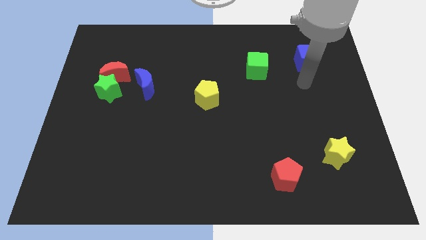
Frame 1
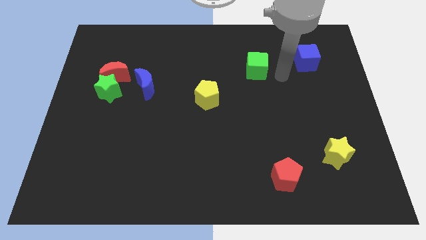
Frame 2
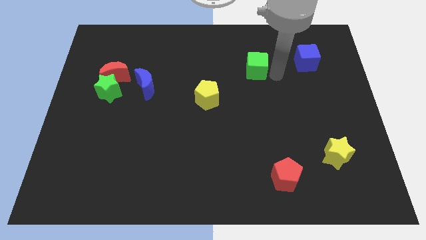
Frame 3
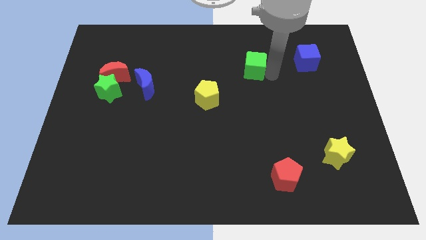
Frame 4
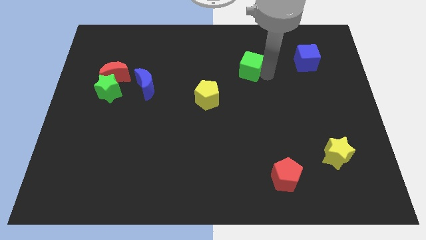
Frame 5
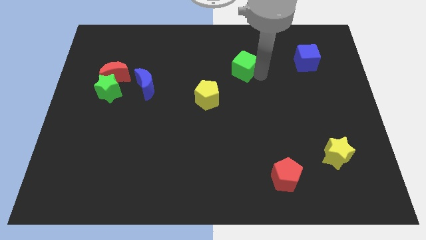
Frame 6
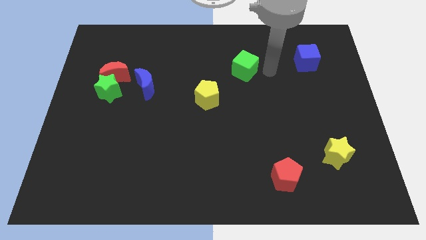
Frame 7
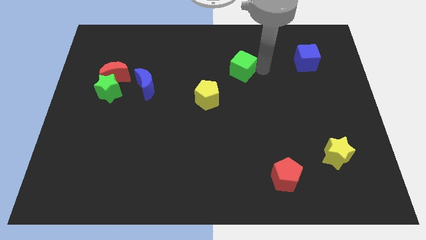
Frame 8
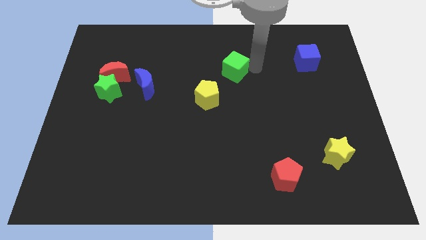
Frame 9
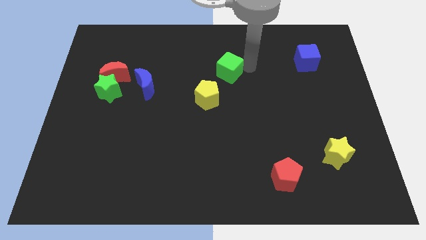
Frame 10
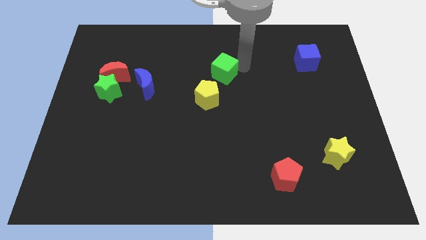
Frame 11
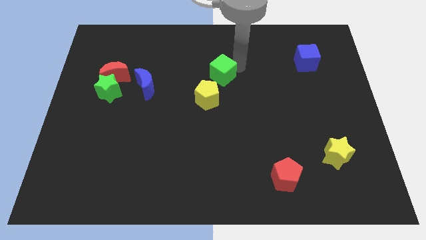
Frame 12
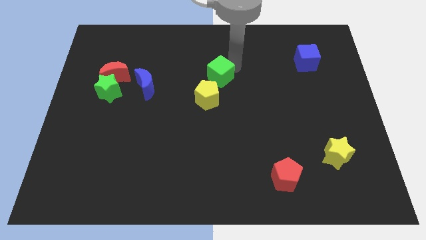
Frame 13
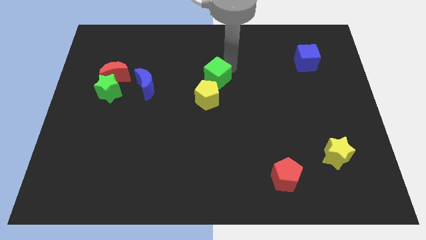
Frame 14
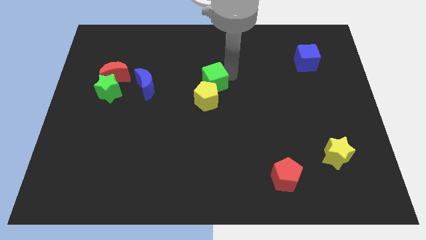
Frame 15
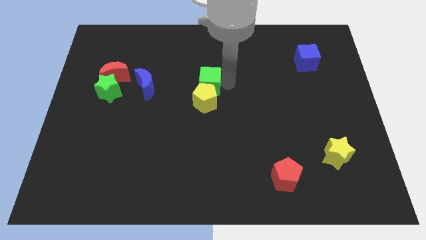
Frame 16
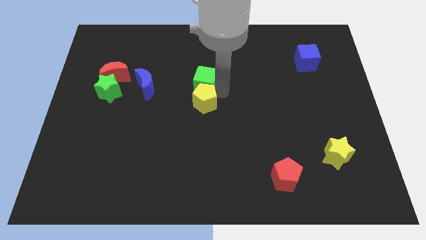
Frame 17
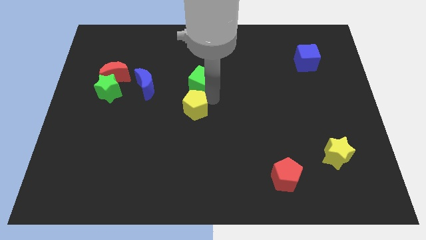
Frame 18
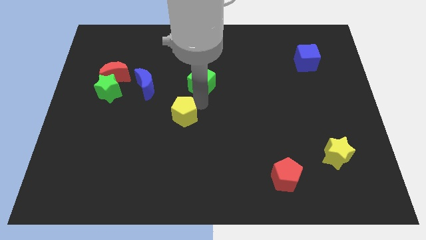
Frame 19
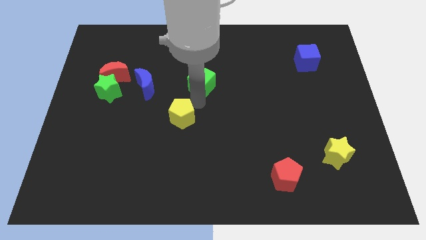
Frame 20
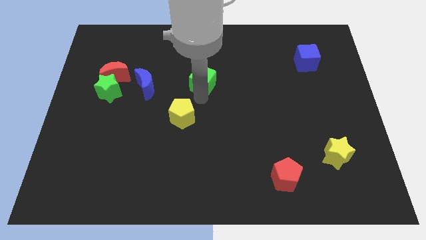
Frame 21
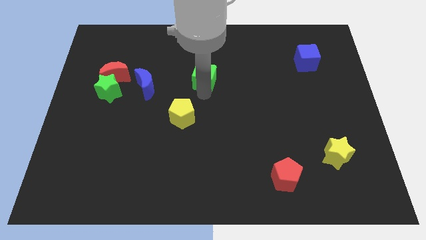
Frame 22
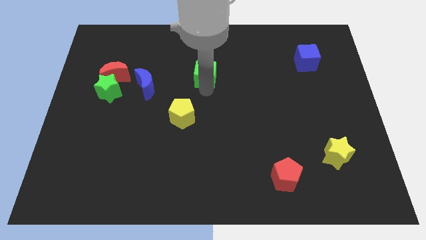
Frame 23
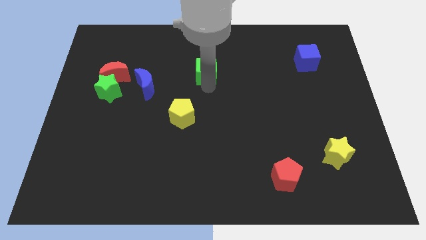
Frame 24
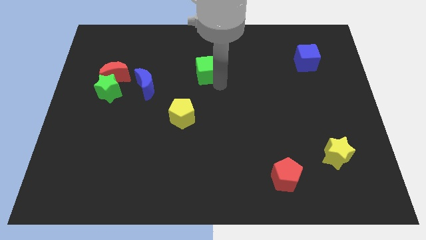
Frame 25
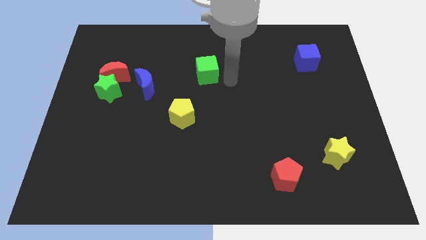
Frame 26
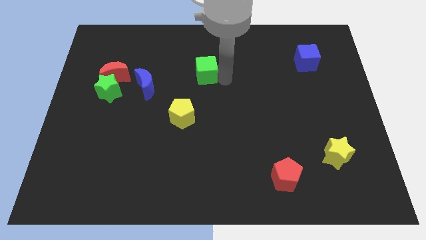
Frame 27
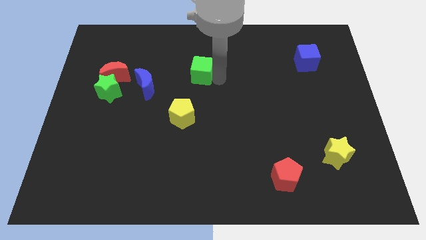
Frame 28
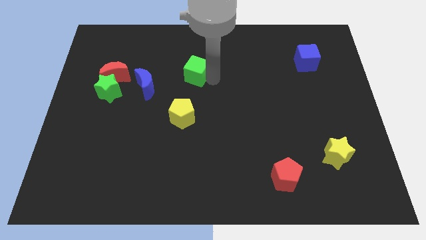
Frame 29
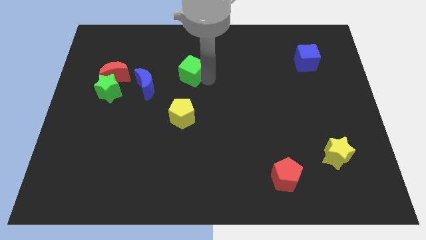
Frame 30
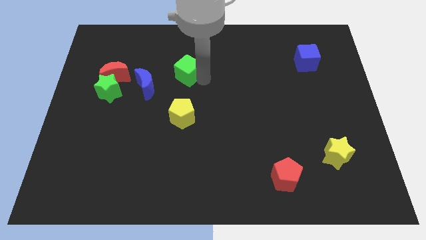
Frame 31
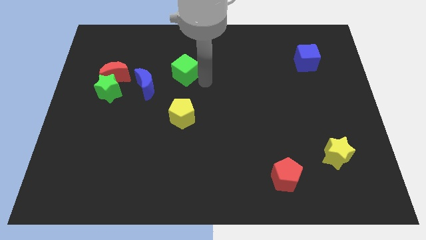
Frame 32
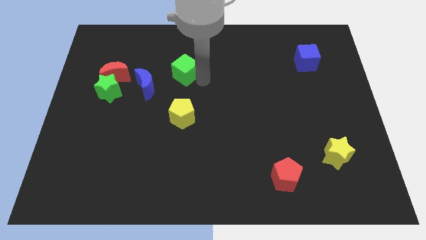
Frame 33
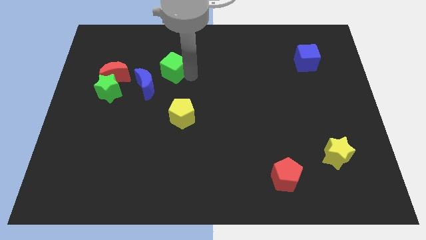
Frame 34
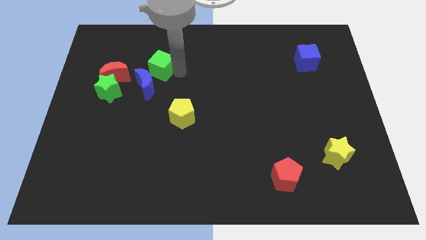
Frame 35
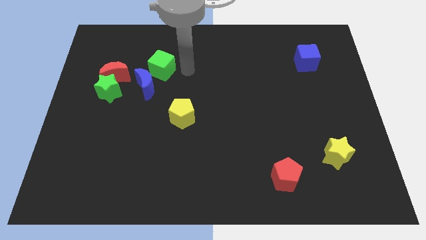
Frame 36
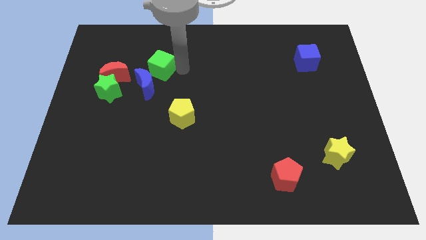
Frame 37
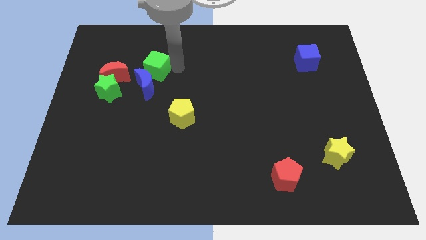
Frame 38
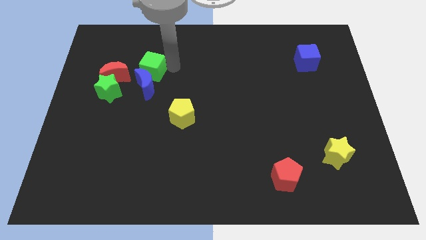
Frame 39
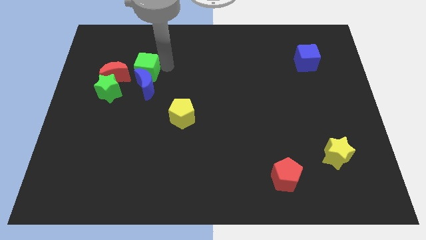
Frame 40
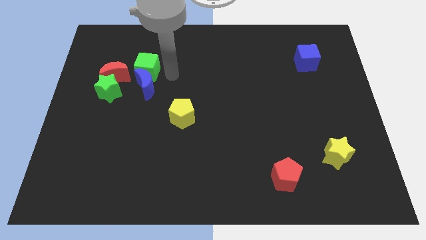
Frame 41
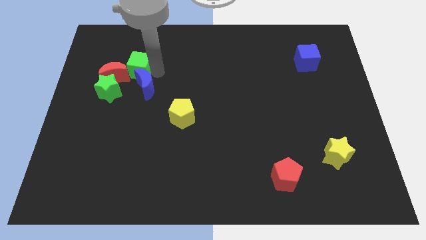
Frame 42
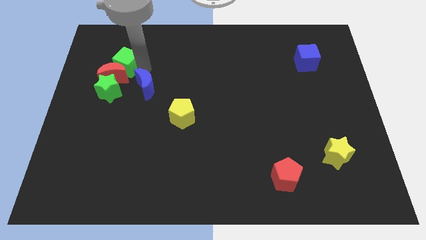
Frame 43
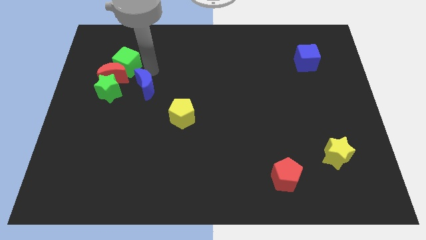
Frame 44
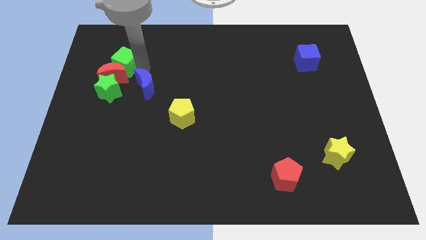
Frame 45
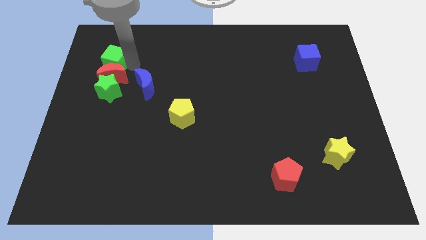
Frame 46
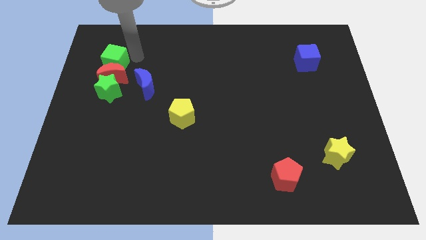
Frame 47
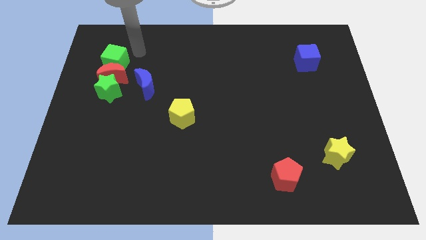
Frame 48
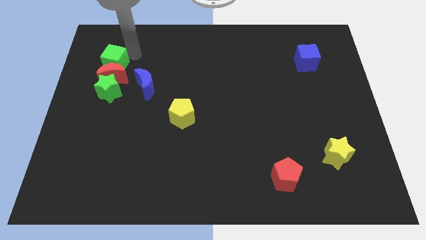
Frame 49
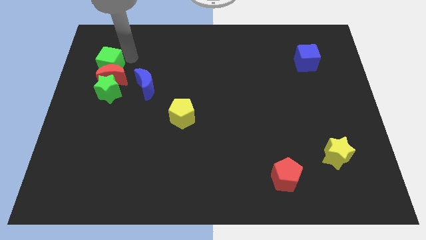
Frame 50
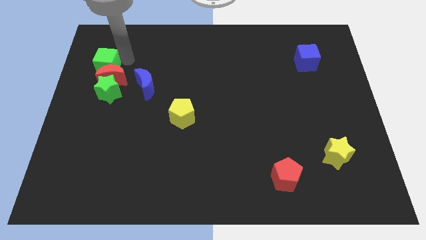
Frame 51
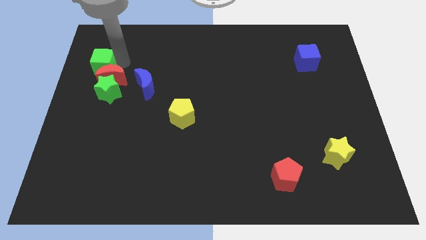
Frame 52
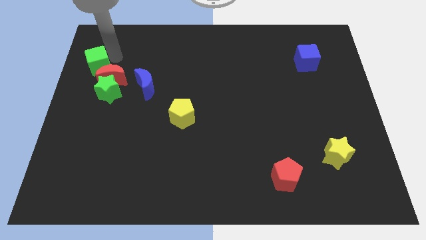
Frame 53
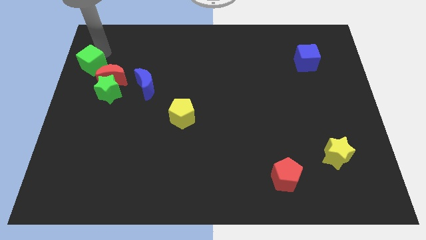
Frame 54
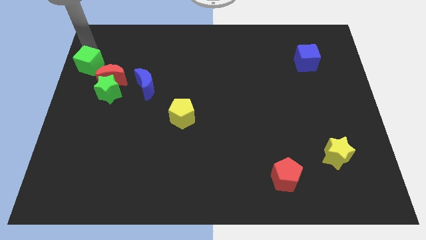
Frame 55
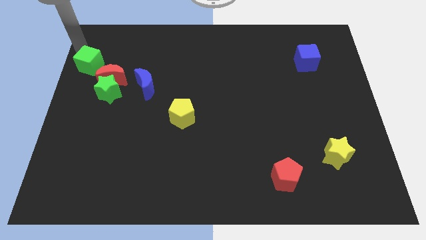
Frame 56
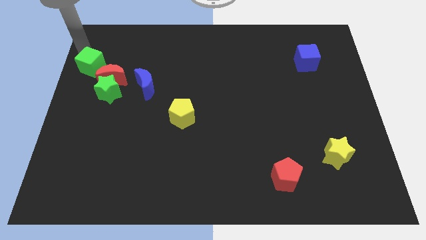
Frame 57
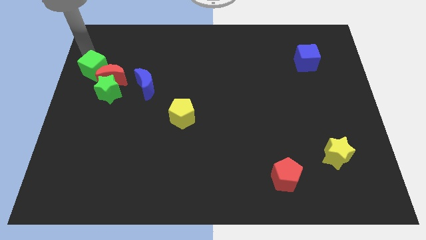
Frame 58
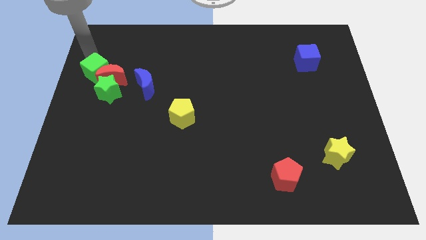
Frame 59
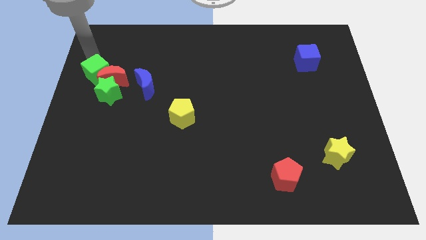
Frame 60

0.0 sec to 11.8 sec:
put the green cube to the left side of the blue moon

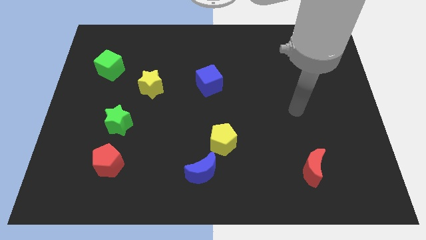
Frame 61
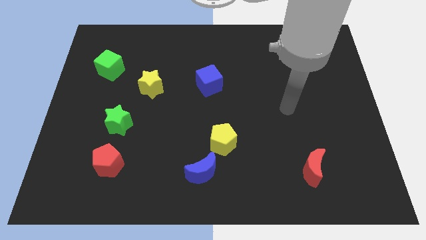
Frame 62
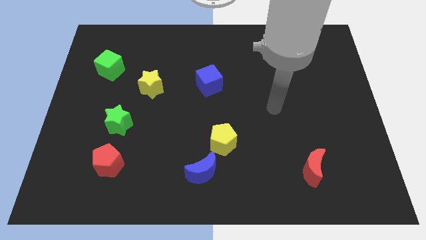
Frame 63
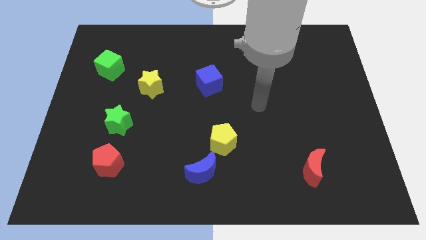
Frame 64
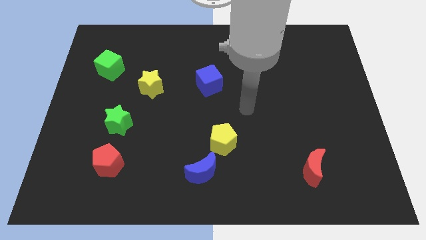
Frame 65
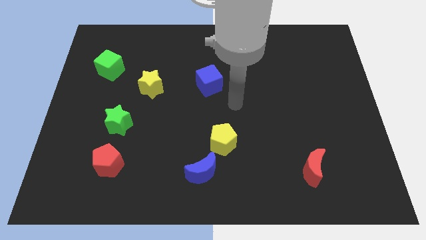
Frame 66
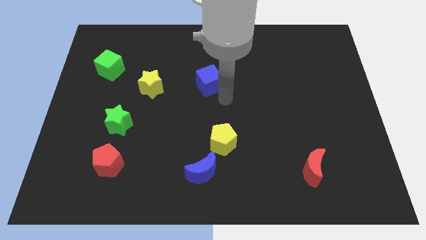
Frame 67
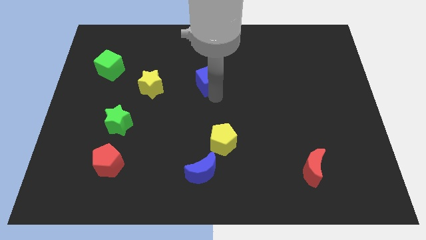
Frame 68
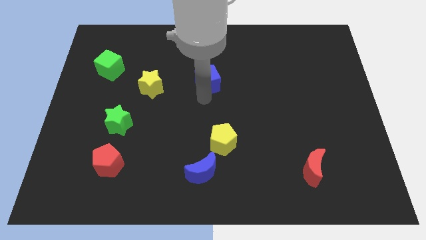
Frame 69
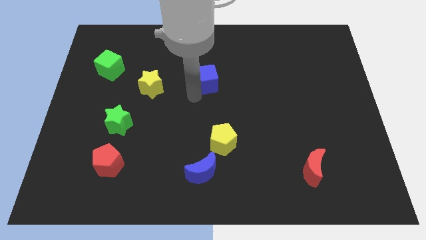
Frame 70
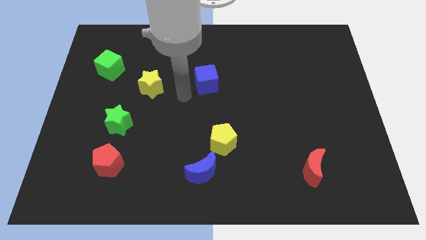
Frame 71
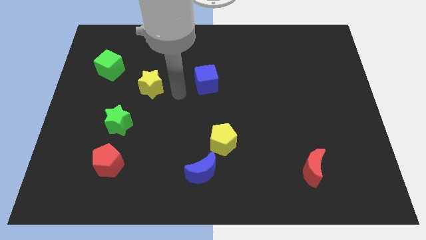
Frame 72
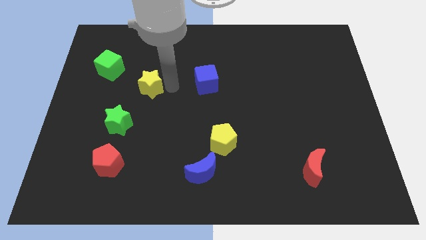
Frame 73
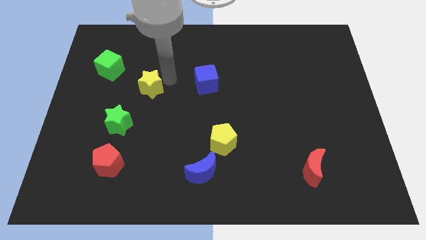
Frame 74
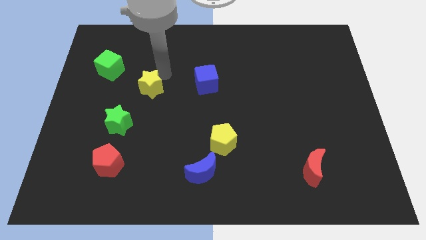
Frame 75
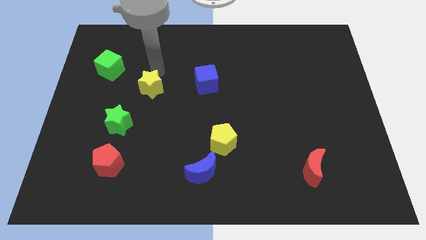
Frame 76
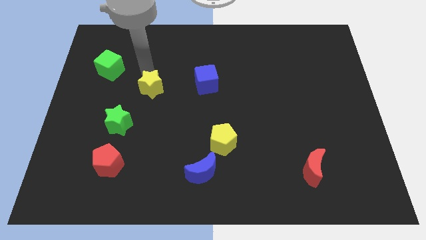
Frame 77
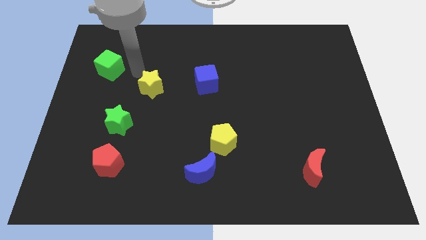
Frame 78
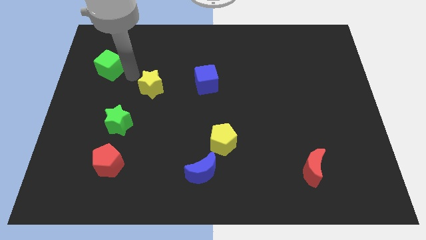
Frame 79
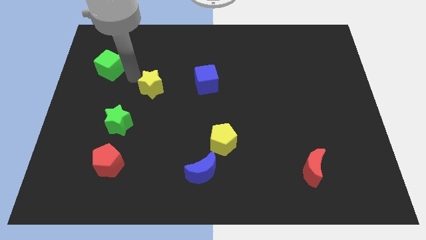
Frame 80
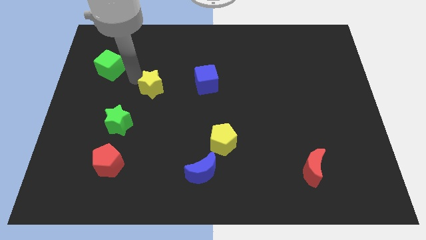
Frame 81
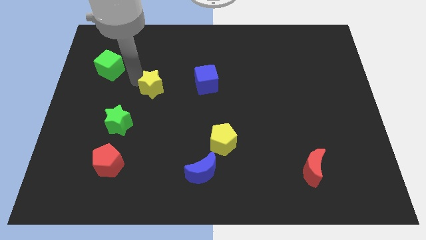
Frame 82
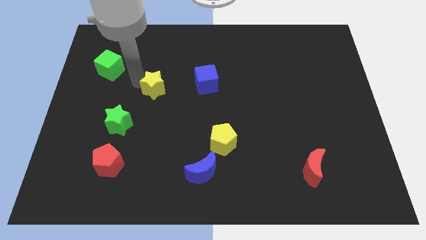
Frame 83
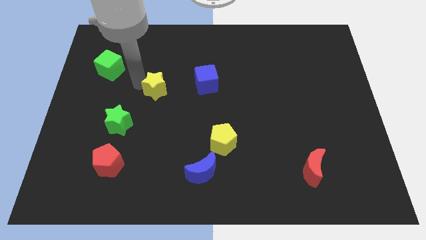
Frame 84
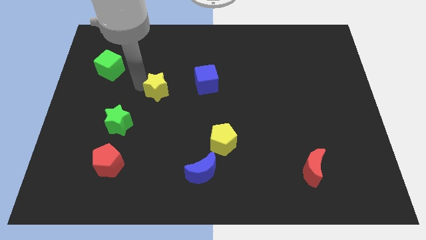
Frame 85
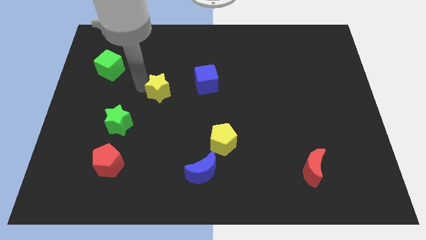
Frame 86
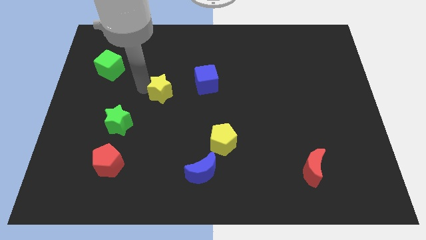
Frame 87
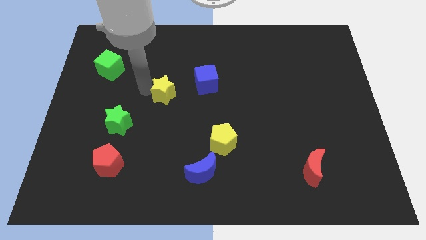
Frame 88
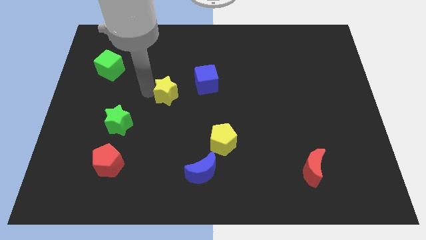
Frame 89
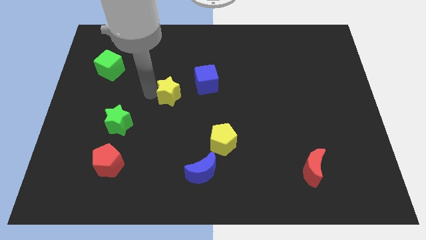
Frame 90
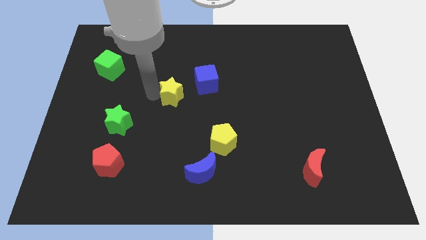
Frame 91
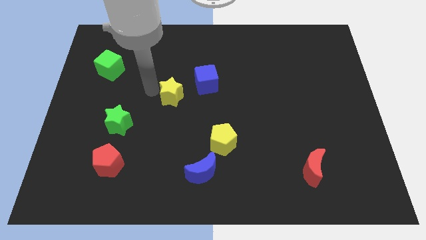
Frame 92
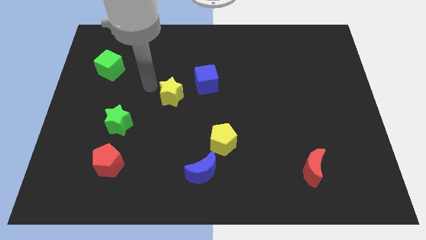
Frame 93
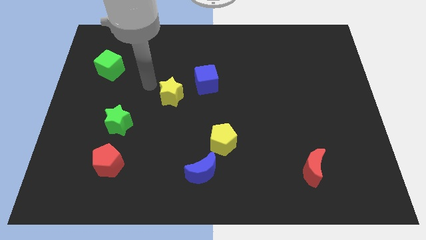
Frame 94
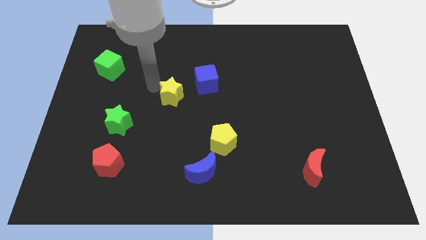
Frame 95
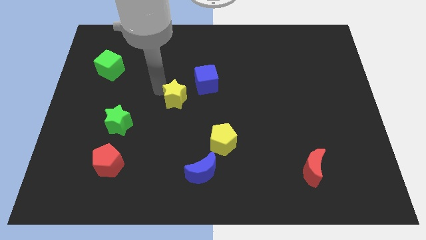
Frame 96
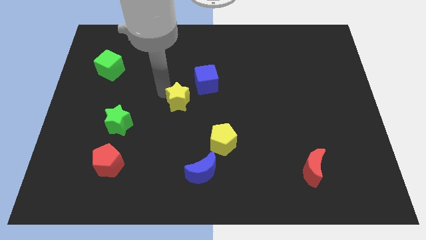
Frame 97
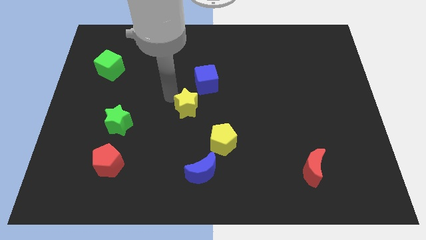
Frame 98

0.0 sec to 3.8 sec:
move the yellow star below the blue cube
